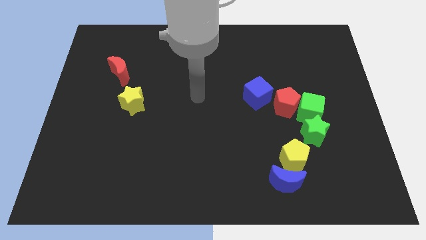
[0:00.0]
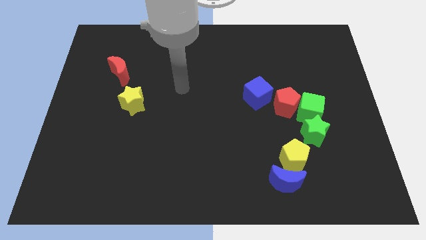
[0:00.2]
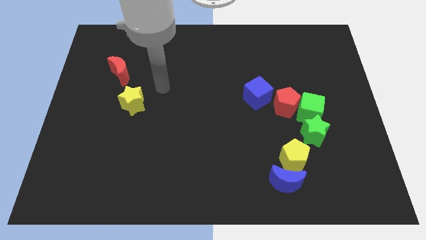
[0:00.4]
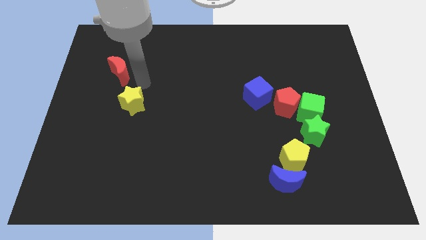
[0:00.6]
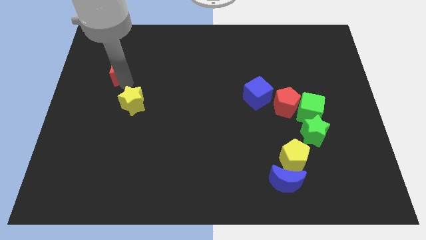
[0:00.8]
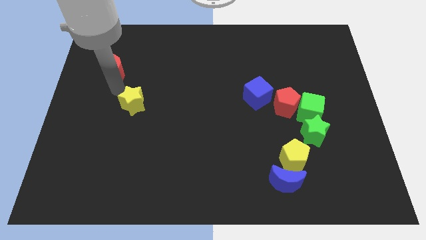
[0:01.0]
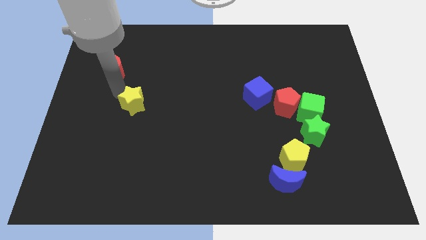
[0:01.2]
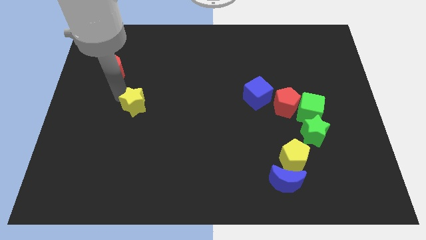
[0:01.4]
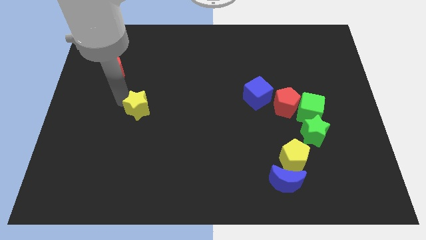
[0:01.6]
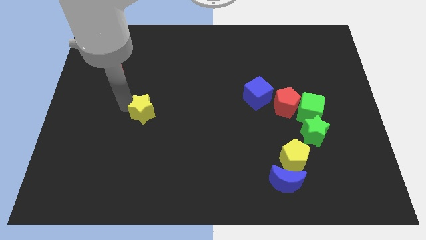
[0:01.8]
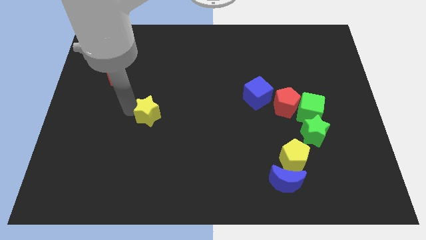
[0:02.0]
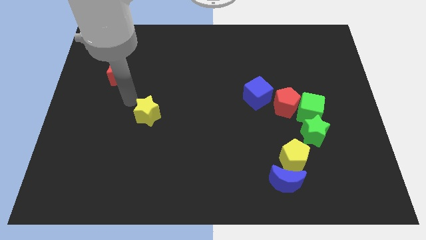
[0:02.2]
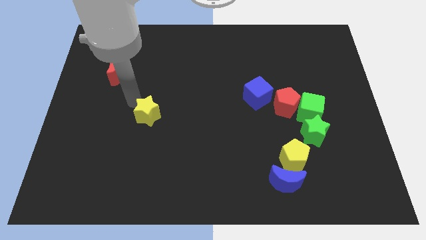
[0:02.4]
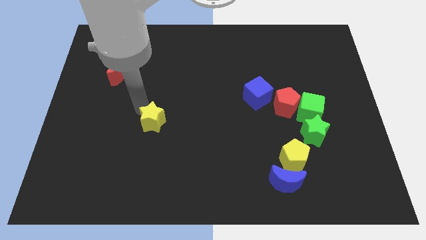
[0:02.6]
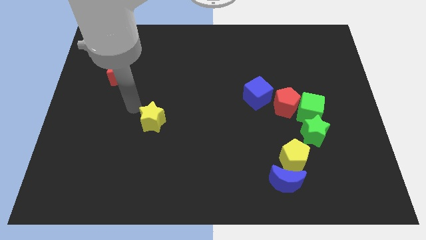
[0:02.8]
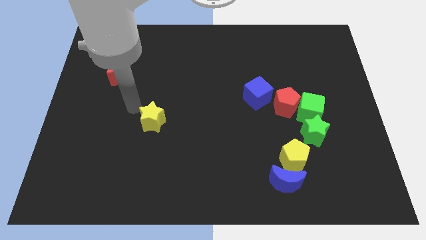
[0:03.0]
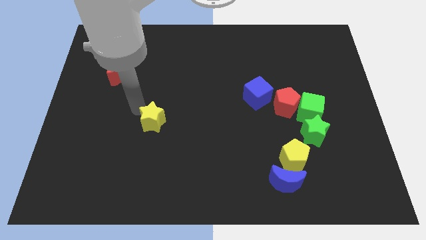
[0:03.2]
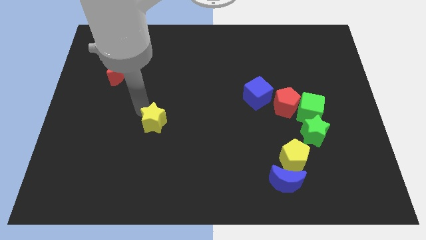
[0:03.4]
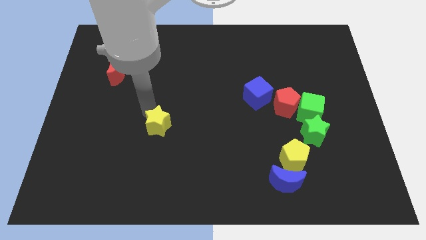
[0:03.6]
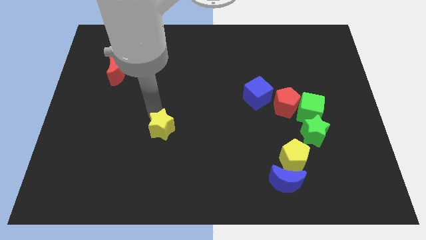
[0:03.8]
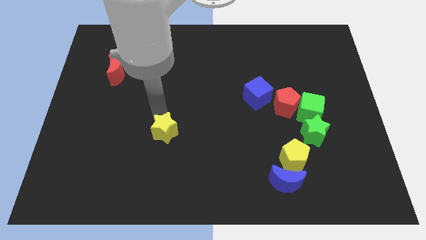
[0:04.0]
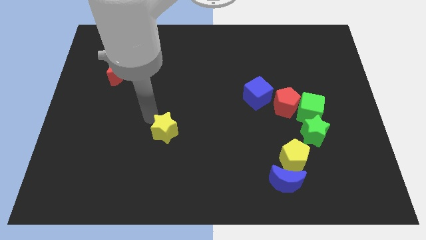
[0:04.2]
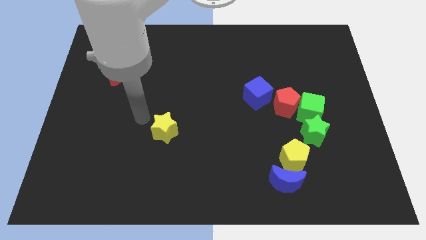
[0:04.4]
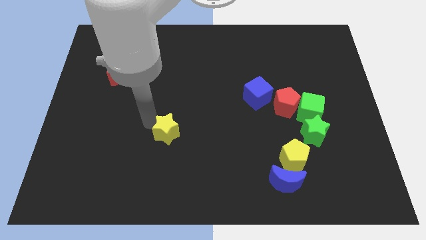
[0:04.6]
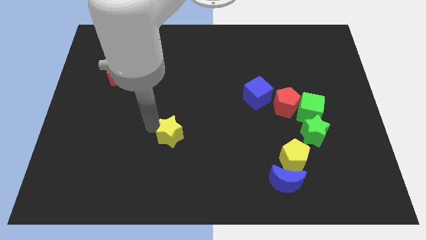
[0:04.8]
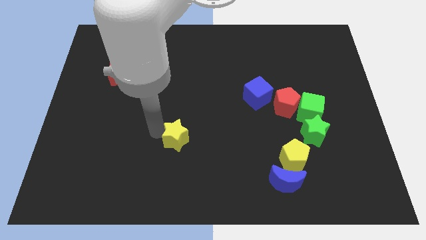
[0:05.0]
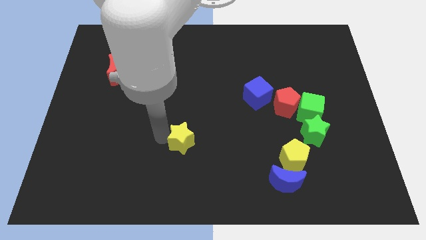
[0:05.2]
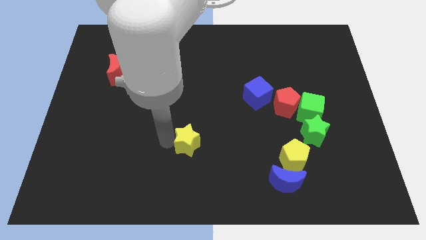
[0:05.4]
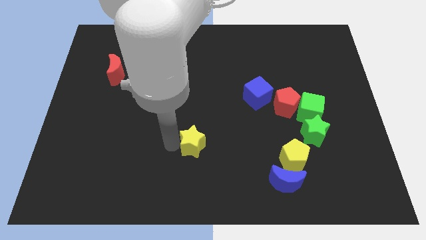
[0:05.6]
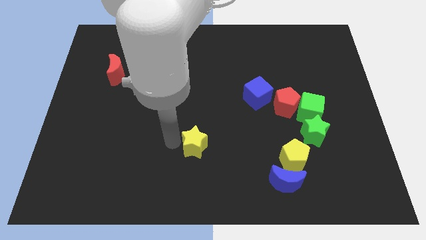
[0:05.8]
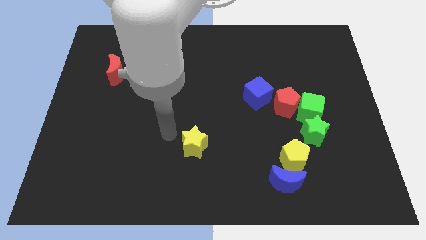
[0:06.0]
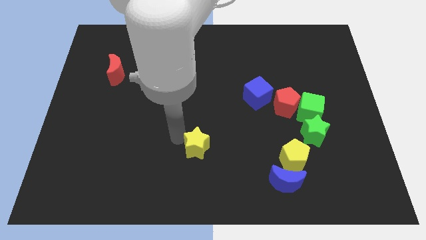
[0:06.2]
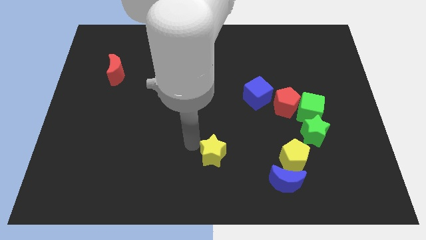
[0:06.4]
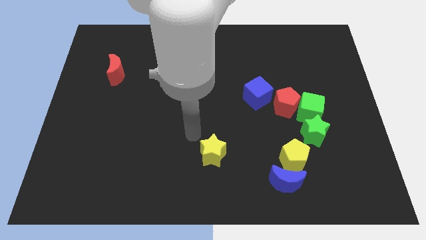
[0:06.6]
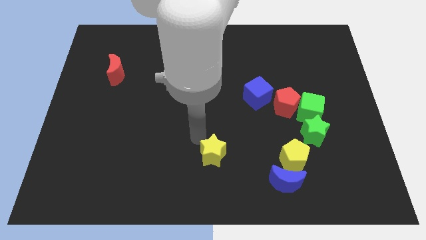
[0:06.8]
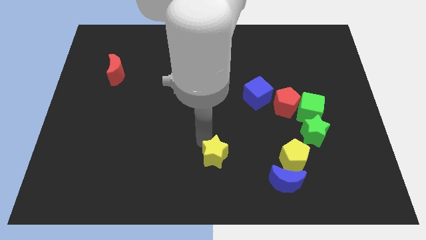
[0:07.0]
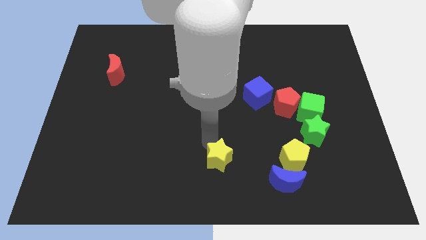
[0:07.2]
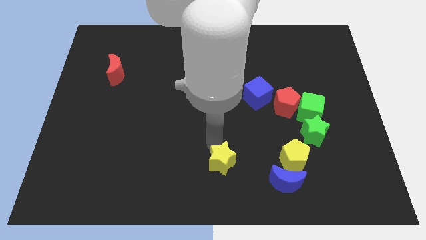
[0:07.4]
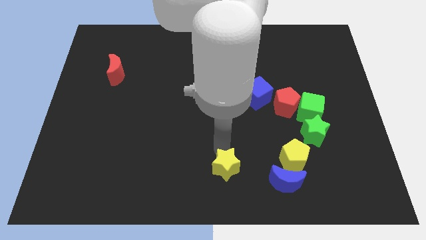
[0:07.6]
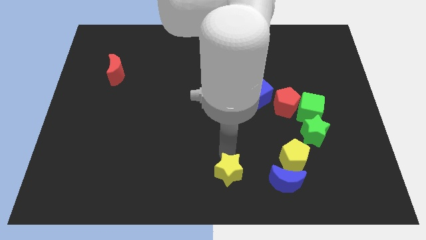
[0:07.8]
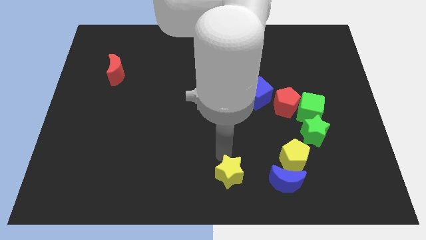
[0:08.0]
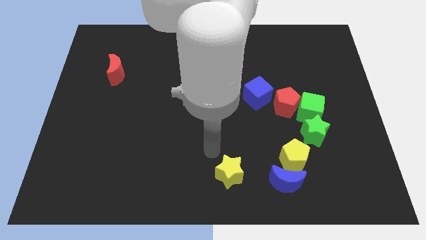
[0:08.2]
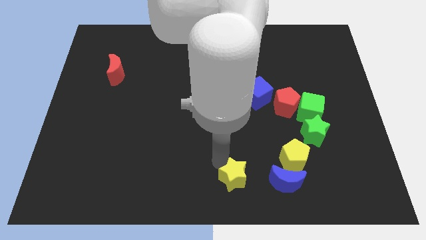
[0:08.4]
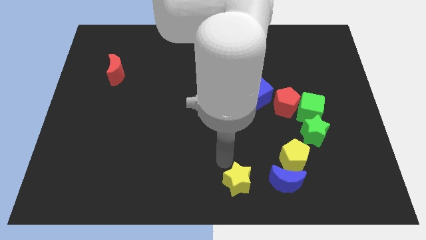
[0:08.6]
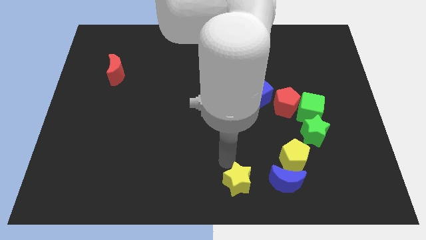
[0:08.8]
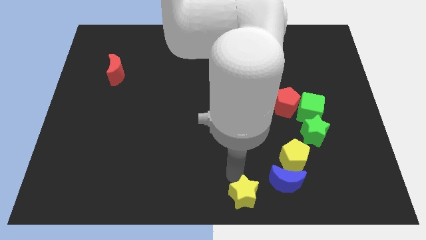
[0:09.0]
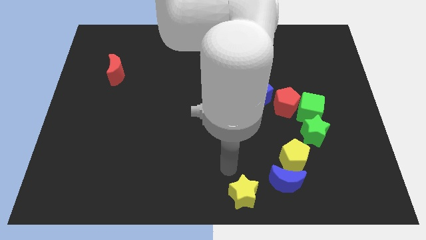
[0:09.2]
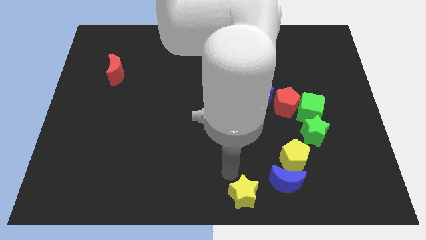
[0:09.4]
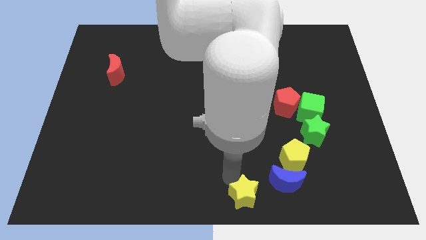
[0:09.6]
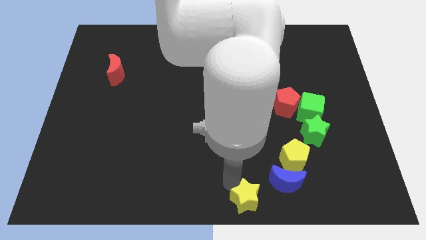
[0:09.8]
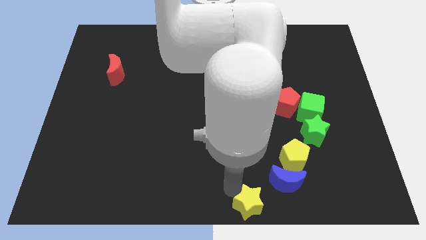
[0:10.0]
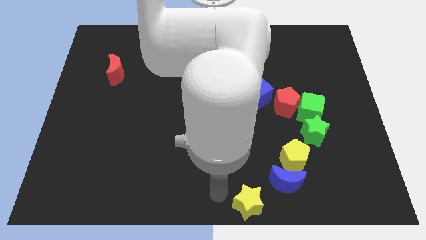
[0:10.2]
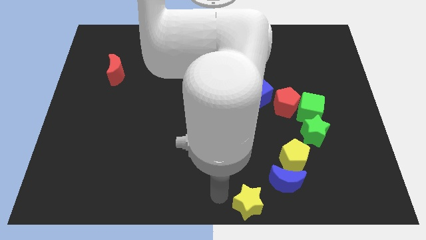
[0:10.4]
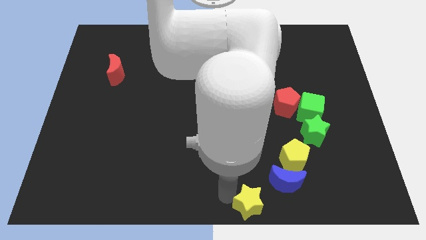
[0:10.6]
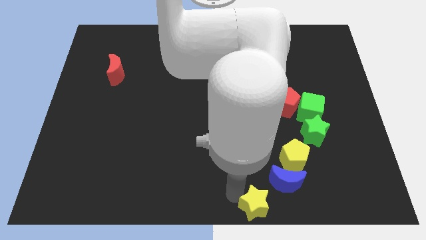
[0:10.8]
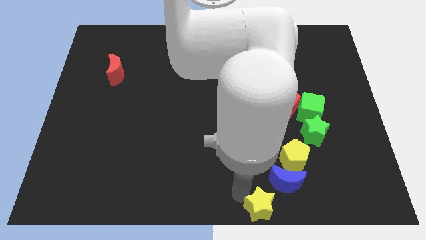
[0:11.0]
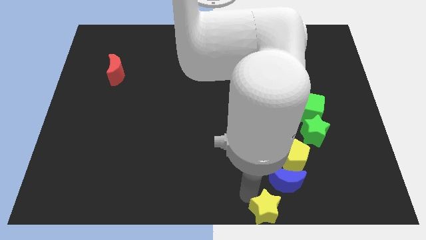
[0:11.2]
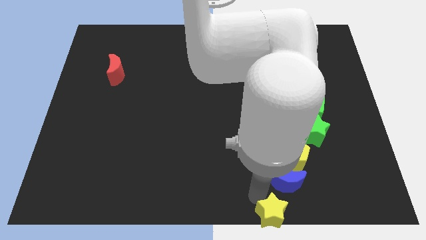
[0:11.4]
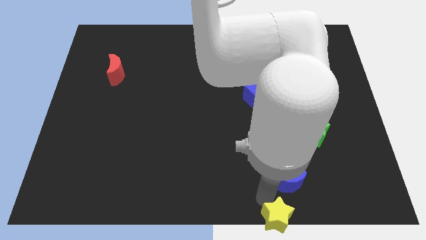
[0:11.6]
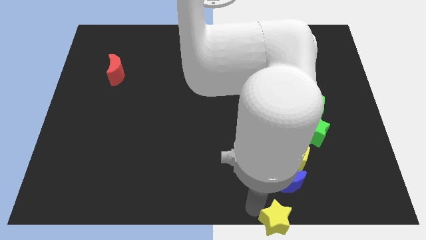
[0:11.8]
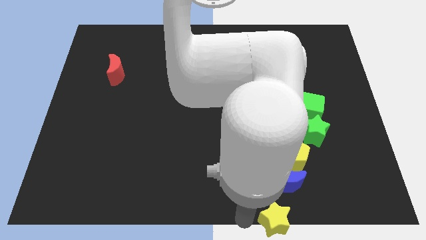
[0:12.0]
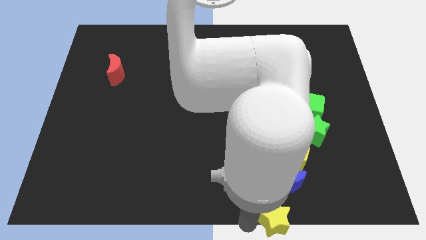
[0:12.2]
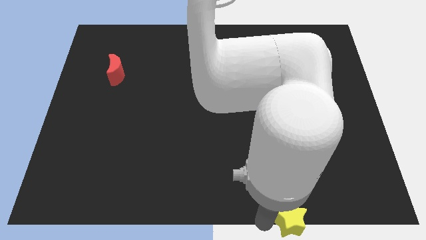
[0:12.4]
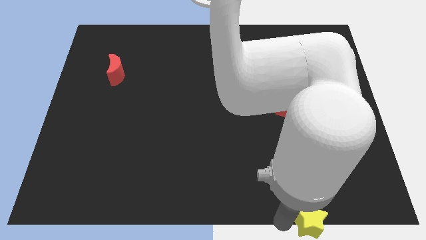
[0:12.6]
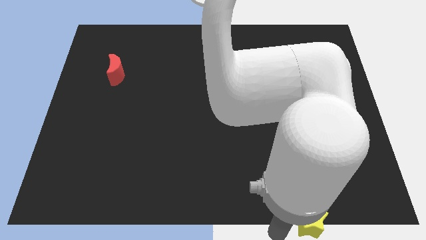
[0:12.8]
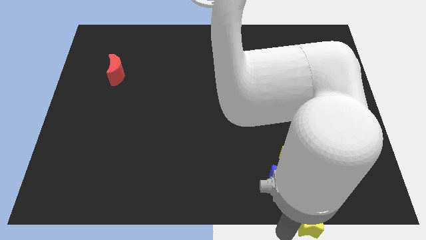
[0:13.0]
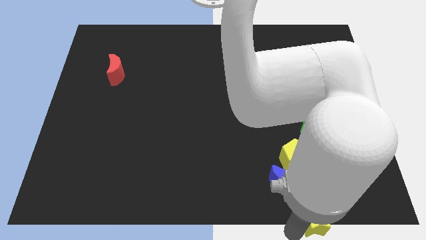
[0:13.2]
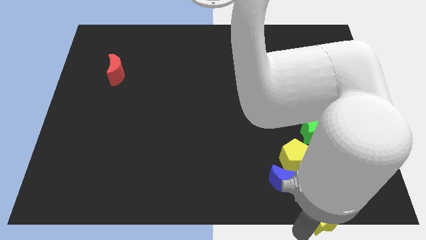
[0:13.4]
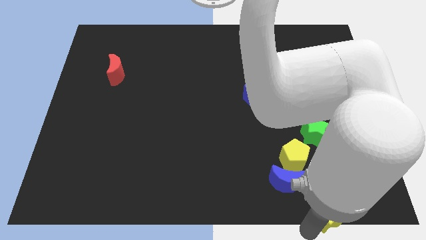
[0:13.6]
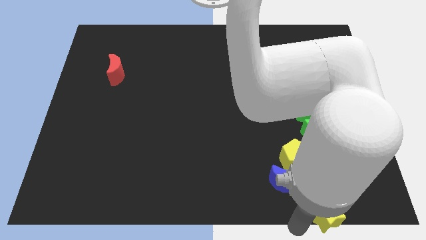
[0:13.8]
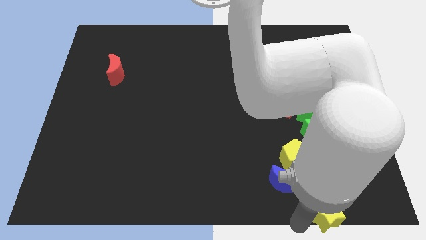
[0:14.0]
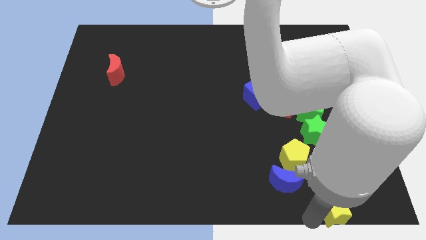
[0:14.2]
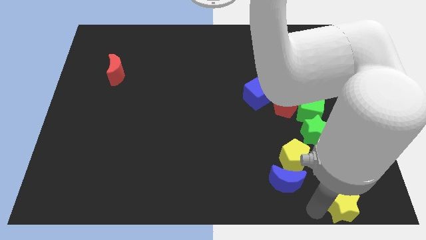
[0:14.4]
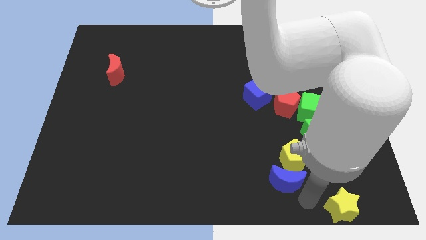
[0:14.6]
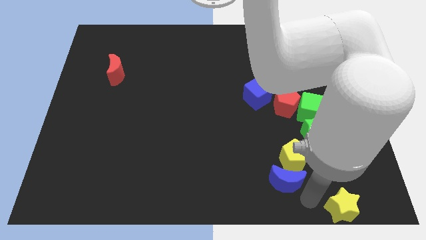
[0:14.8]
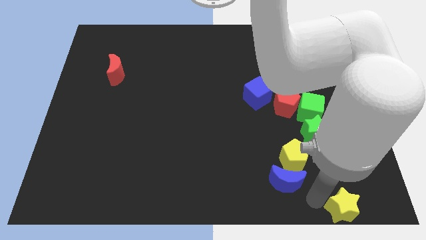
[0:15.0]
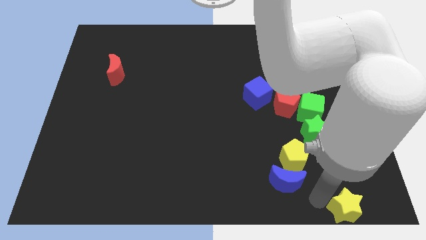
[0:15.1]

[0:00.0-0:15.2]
push the yellow star to the bottom right
